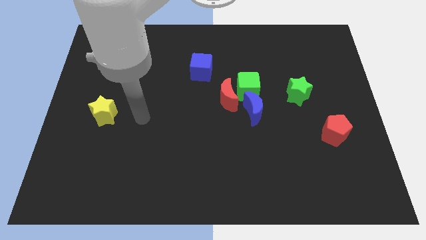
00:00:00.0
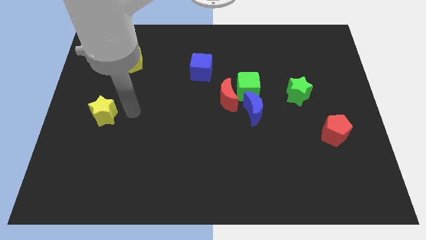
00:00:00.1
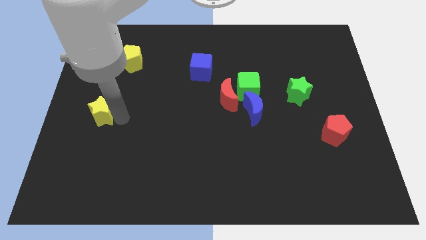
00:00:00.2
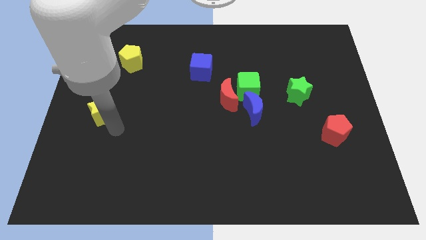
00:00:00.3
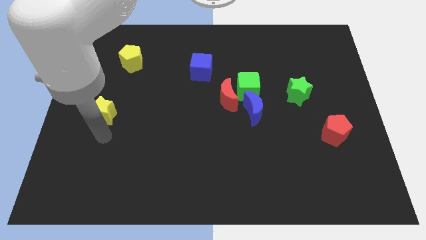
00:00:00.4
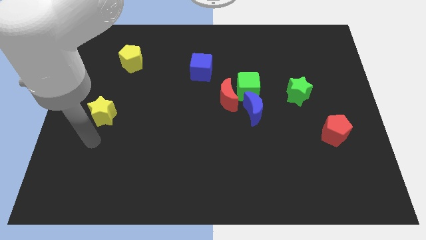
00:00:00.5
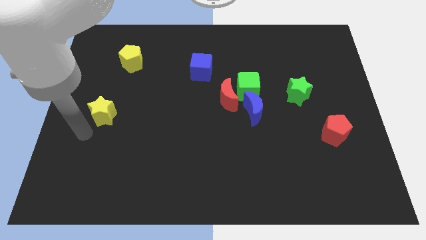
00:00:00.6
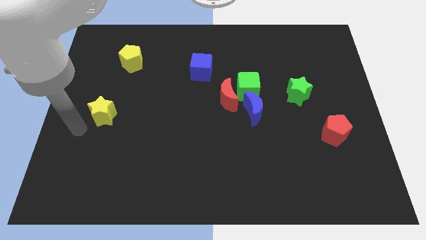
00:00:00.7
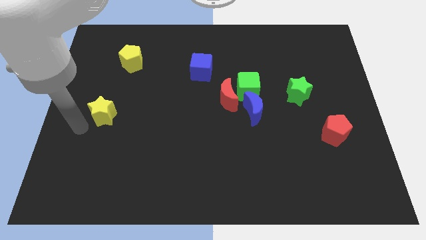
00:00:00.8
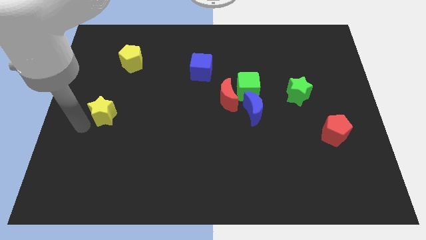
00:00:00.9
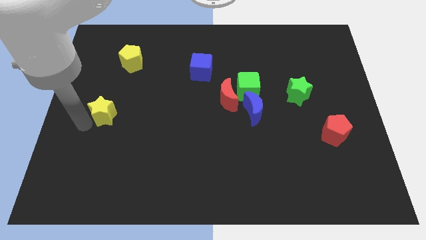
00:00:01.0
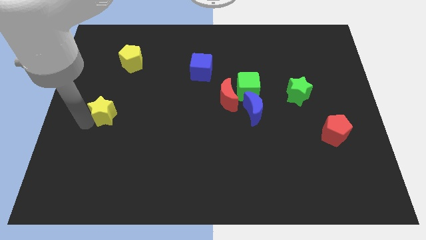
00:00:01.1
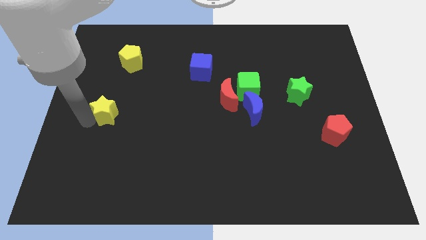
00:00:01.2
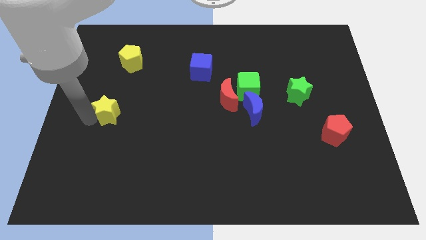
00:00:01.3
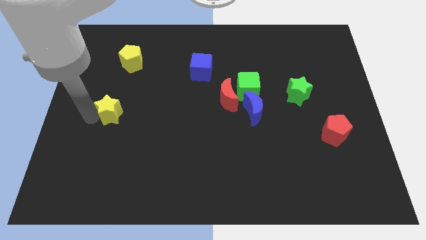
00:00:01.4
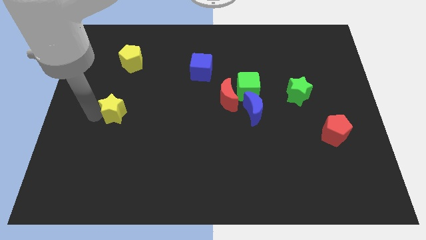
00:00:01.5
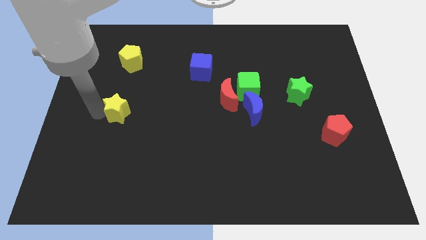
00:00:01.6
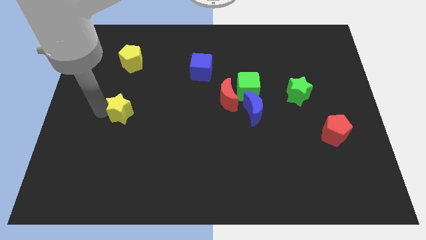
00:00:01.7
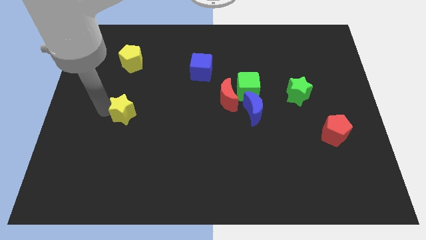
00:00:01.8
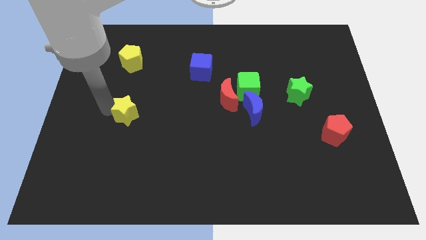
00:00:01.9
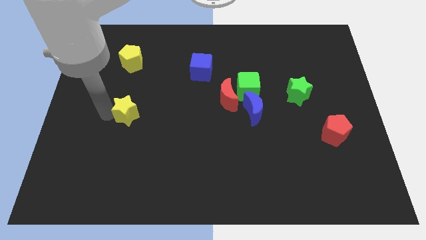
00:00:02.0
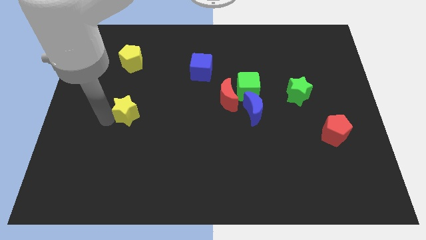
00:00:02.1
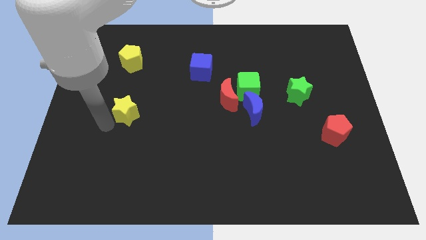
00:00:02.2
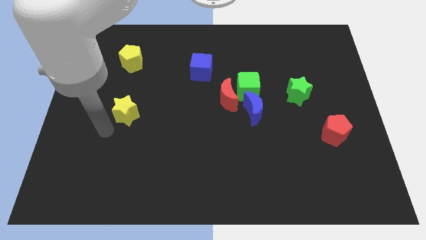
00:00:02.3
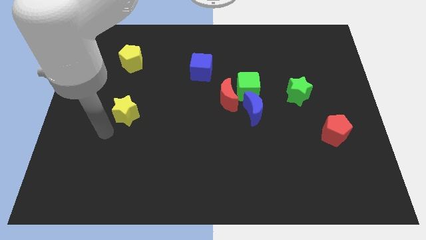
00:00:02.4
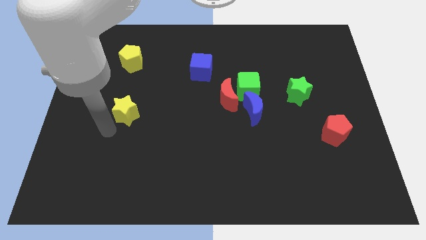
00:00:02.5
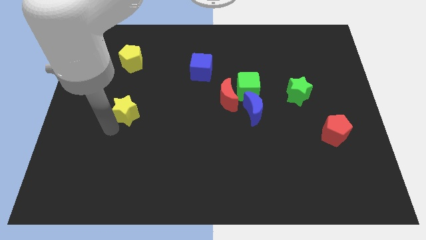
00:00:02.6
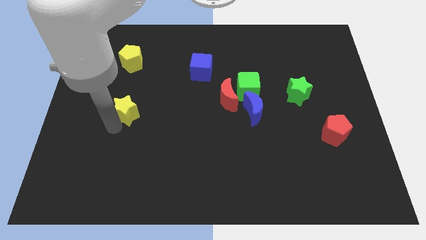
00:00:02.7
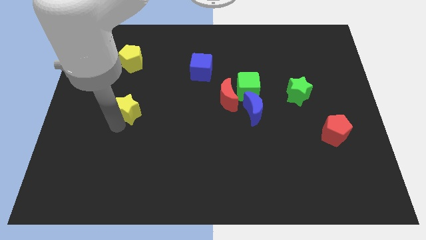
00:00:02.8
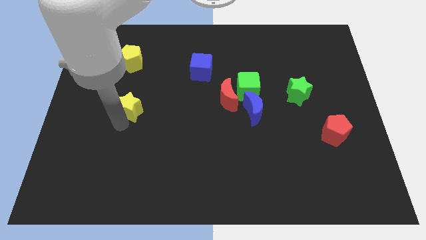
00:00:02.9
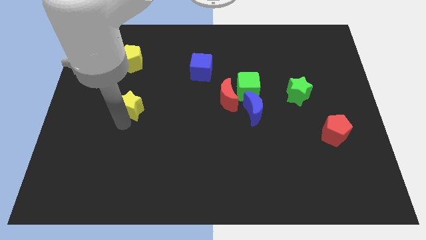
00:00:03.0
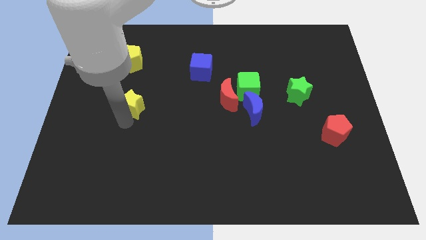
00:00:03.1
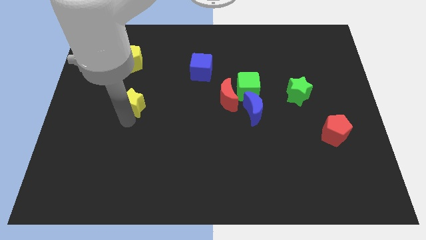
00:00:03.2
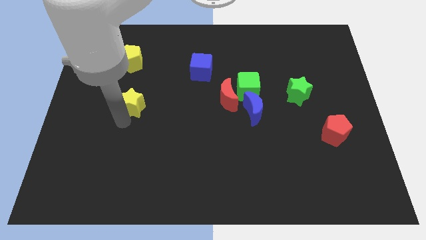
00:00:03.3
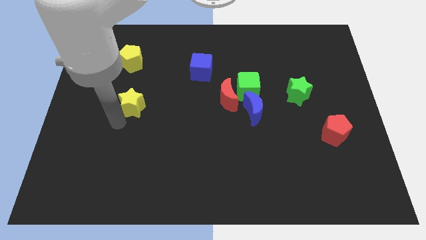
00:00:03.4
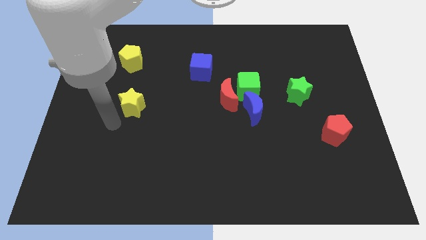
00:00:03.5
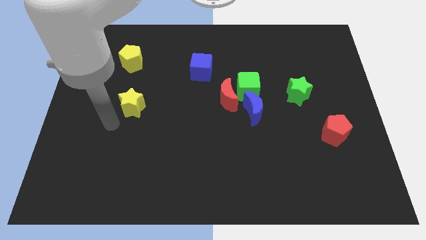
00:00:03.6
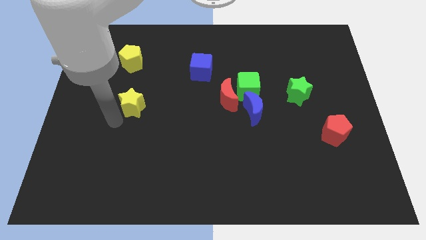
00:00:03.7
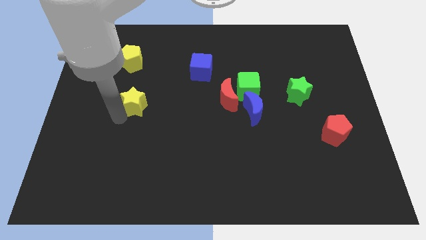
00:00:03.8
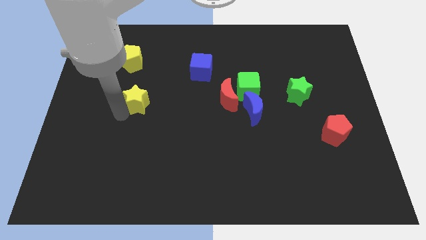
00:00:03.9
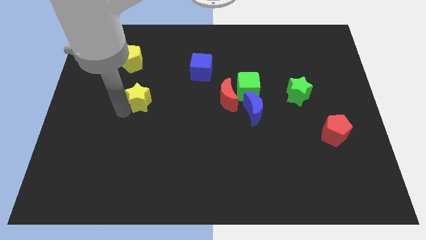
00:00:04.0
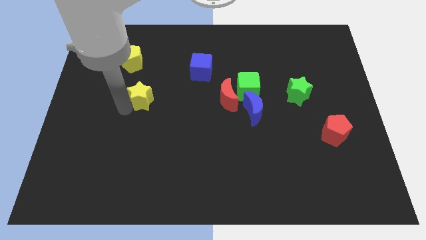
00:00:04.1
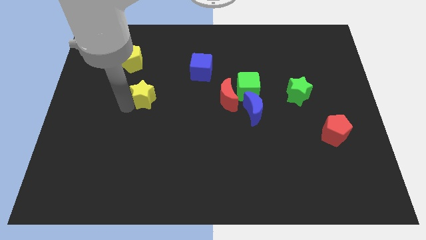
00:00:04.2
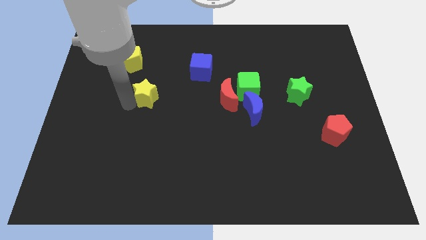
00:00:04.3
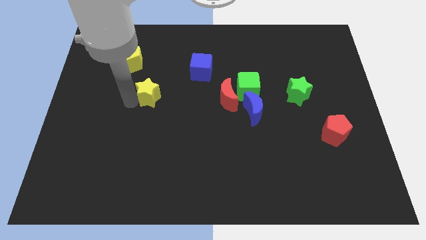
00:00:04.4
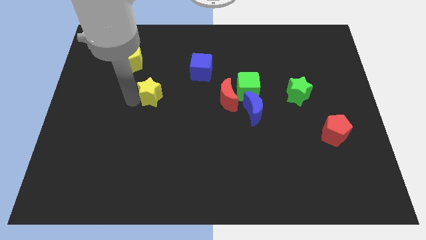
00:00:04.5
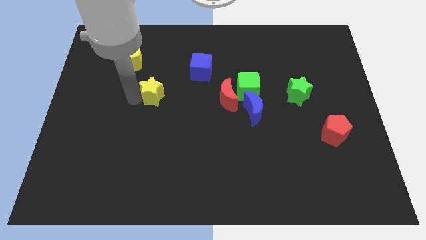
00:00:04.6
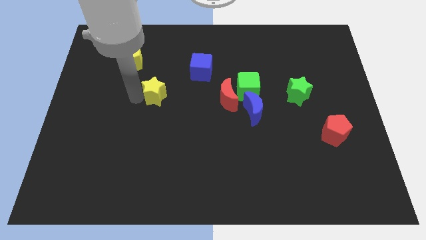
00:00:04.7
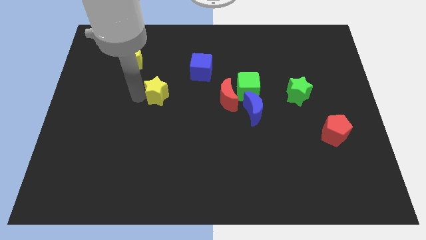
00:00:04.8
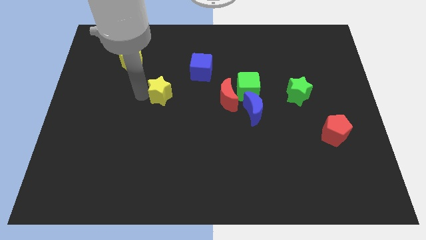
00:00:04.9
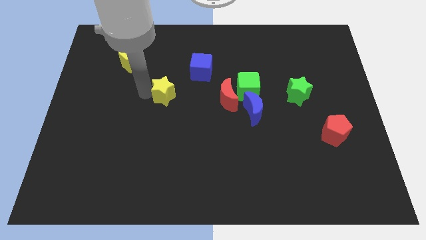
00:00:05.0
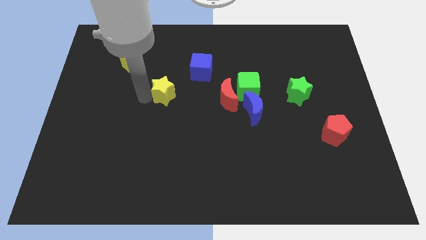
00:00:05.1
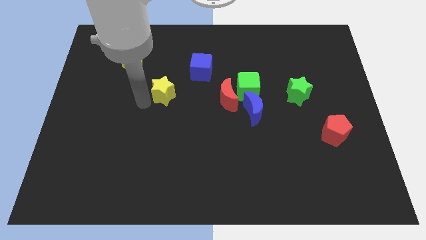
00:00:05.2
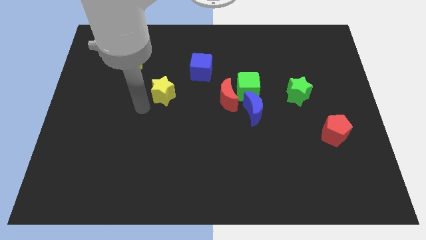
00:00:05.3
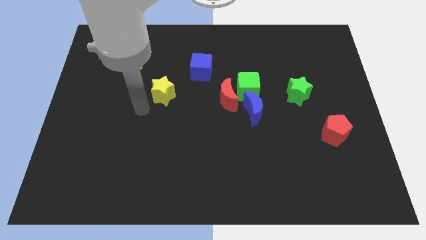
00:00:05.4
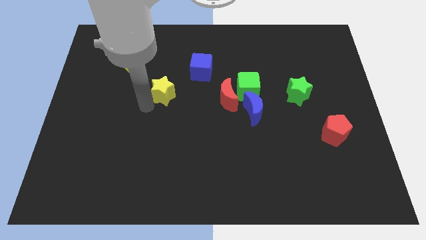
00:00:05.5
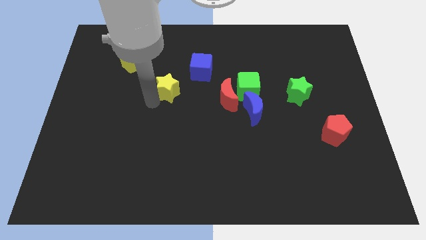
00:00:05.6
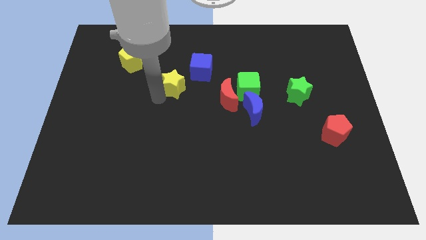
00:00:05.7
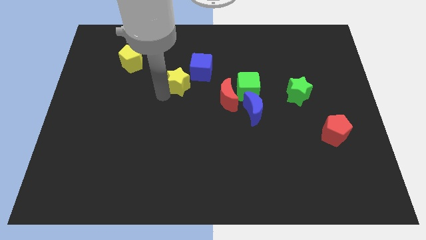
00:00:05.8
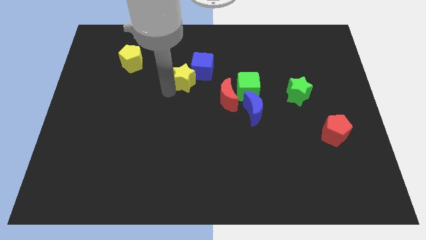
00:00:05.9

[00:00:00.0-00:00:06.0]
put the yellow star close to the blue cube

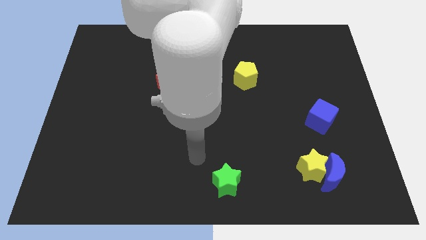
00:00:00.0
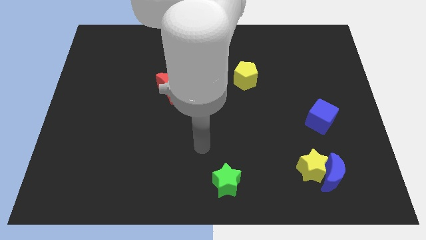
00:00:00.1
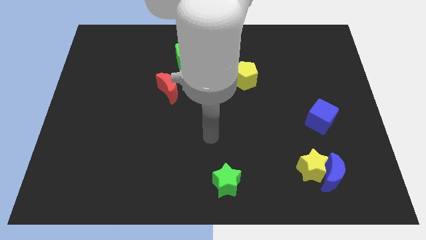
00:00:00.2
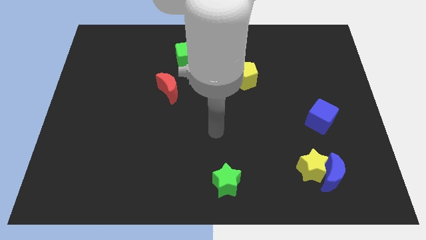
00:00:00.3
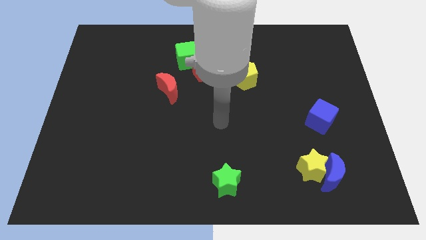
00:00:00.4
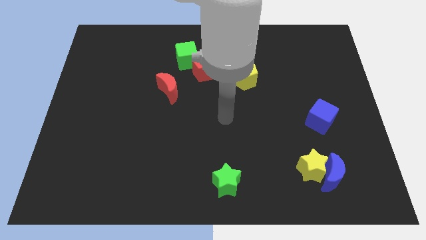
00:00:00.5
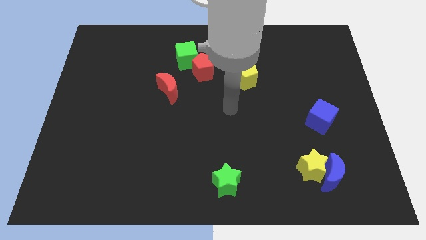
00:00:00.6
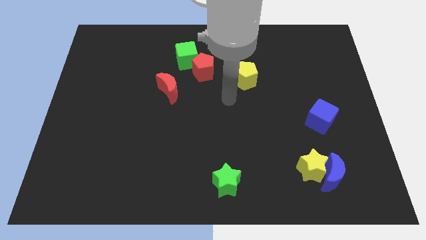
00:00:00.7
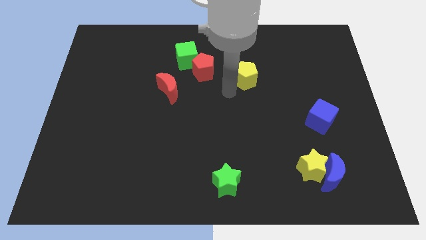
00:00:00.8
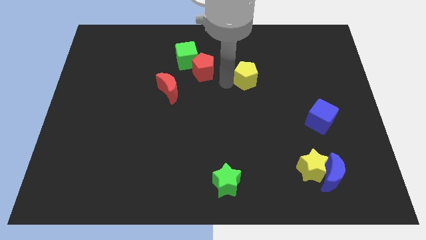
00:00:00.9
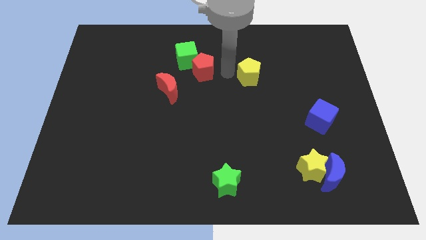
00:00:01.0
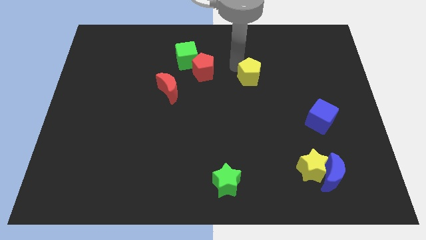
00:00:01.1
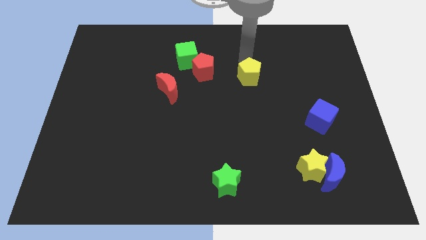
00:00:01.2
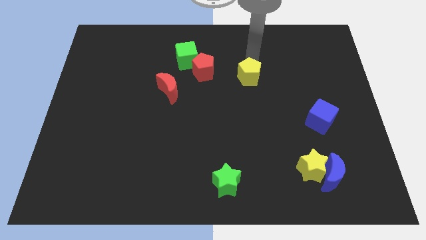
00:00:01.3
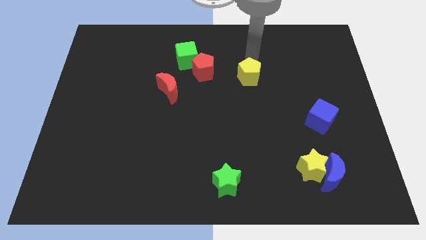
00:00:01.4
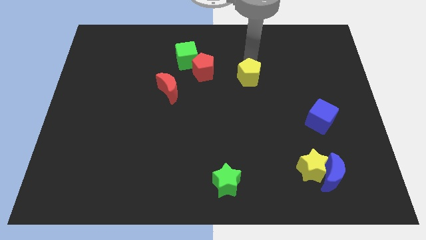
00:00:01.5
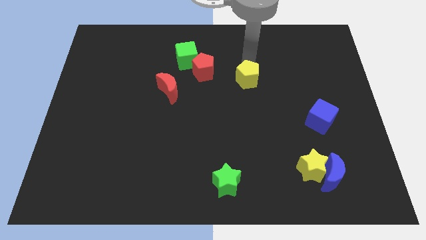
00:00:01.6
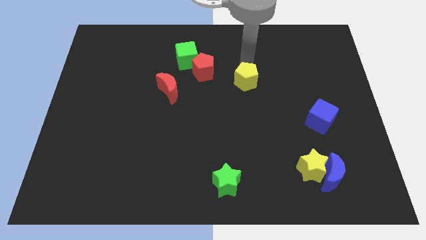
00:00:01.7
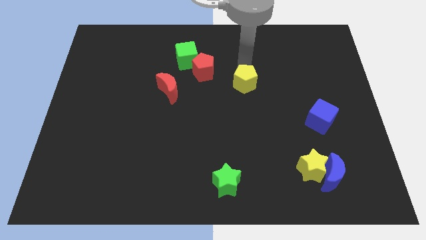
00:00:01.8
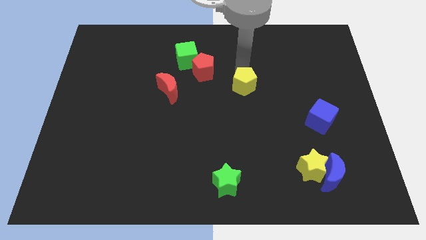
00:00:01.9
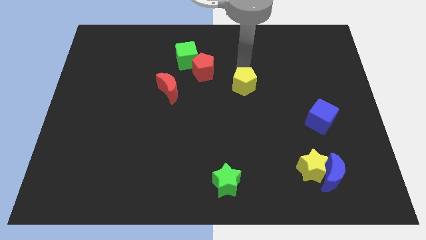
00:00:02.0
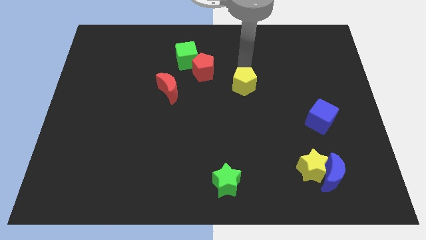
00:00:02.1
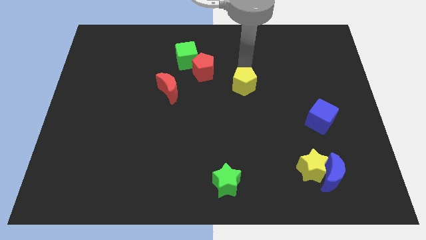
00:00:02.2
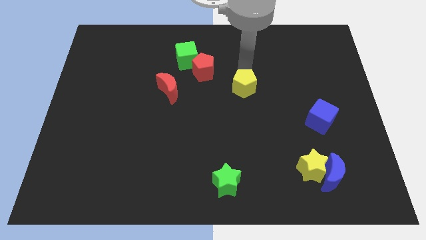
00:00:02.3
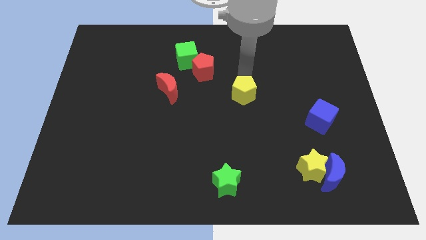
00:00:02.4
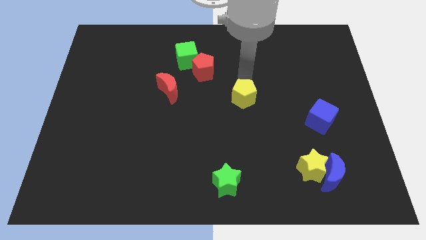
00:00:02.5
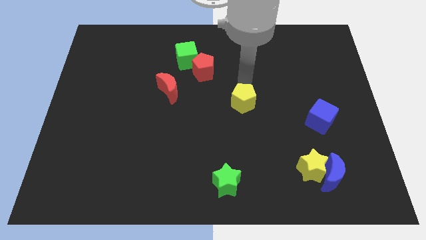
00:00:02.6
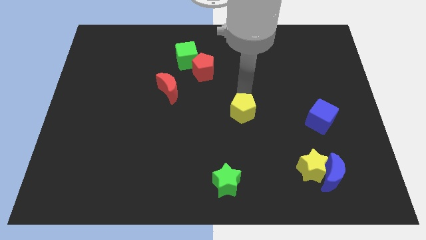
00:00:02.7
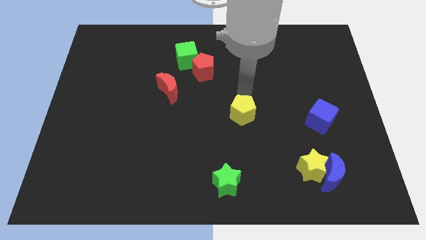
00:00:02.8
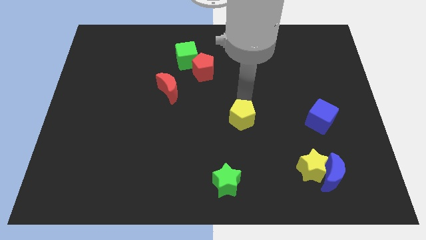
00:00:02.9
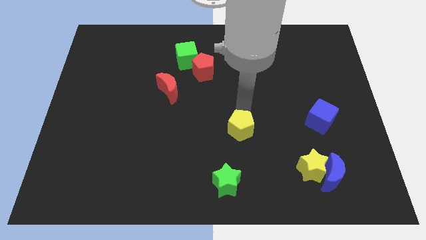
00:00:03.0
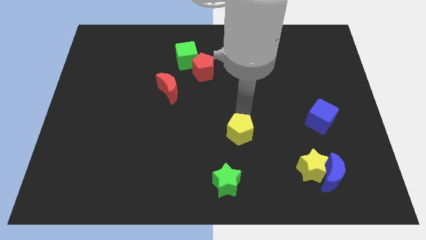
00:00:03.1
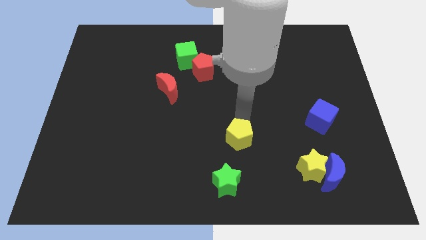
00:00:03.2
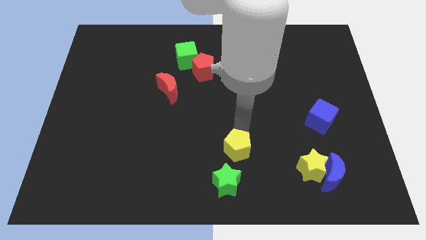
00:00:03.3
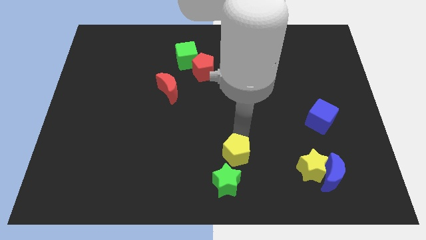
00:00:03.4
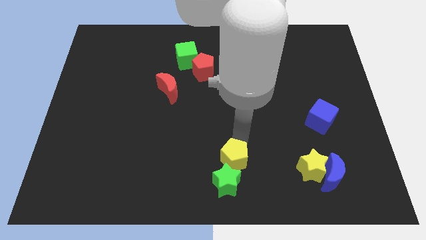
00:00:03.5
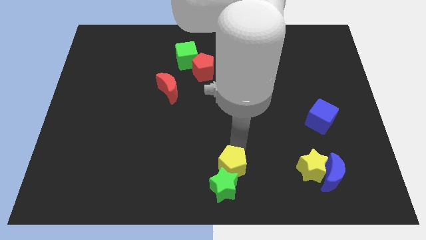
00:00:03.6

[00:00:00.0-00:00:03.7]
move the yellow pentagon towards the green star
